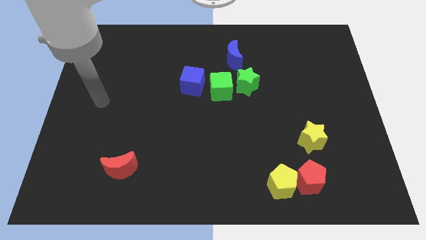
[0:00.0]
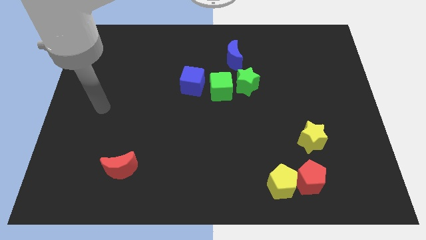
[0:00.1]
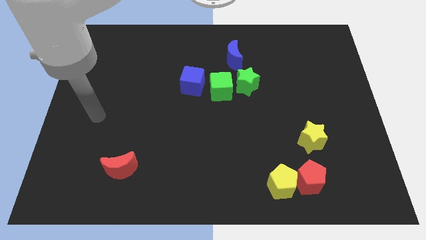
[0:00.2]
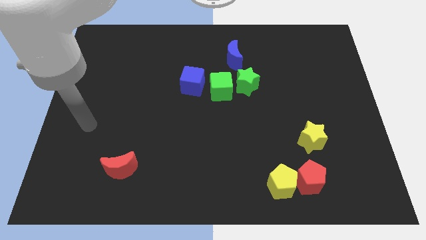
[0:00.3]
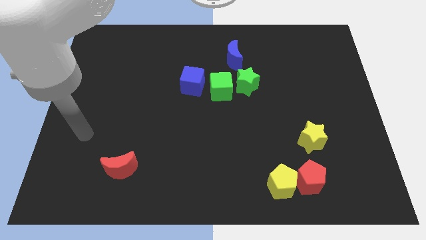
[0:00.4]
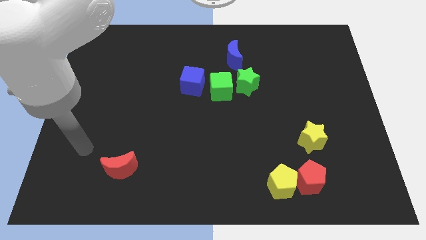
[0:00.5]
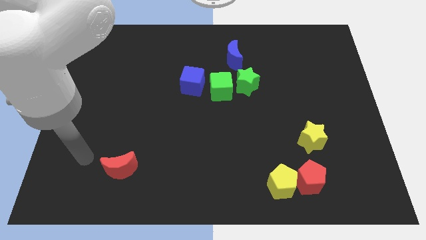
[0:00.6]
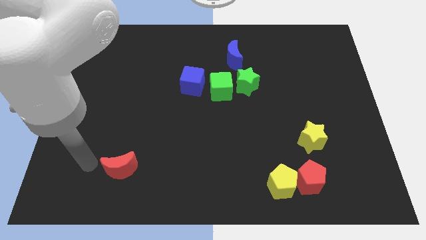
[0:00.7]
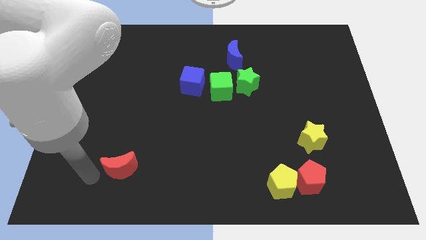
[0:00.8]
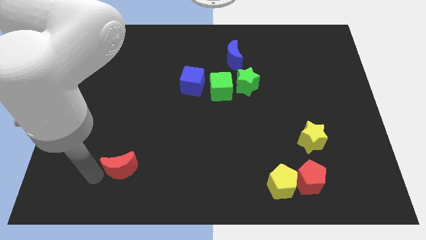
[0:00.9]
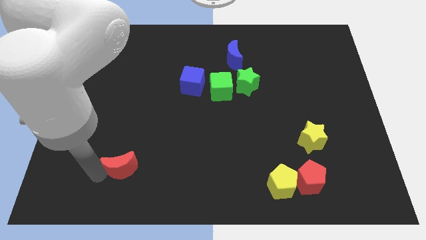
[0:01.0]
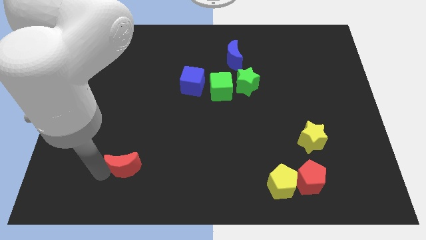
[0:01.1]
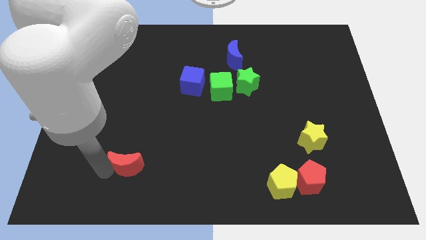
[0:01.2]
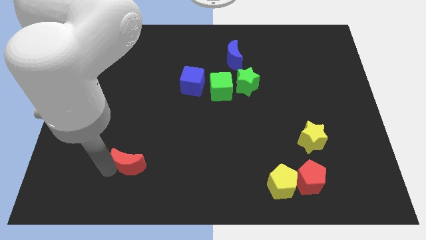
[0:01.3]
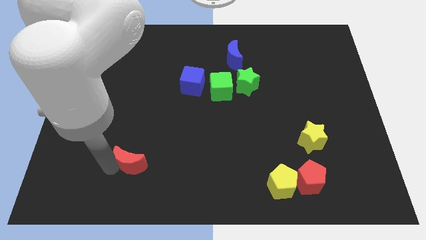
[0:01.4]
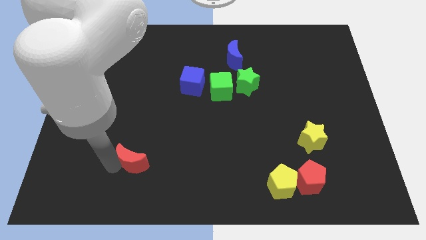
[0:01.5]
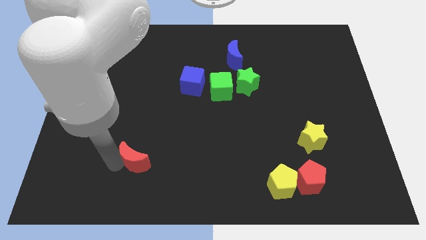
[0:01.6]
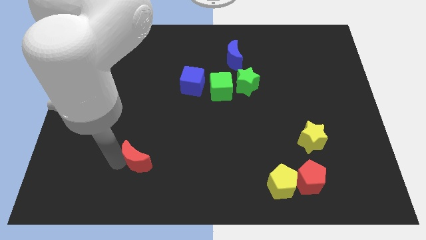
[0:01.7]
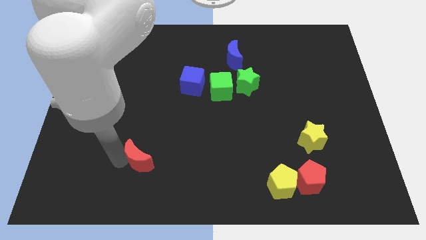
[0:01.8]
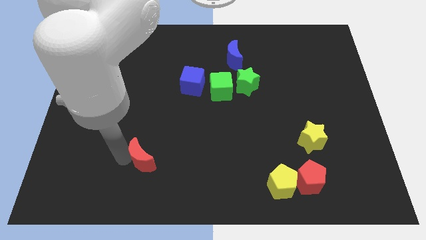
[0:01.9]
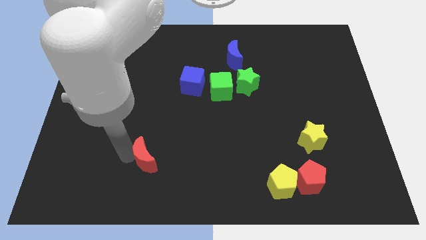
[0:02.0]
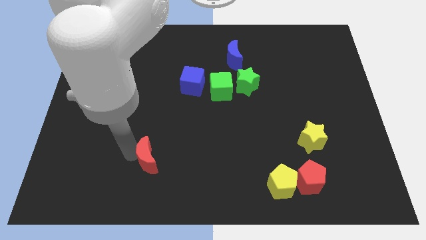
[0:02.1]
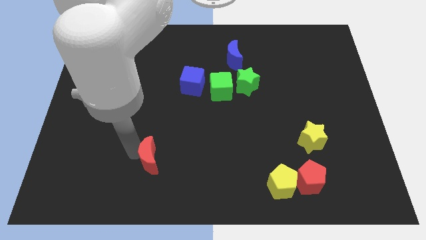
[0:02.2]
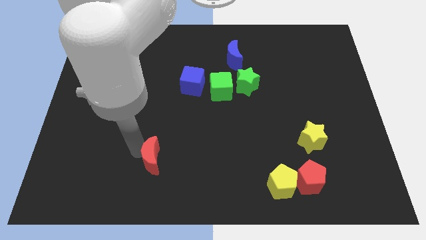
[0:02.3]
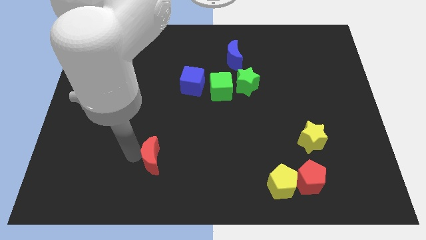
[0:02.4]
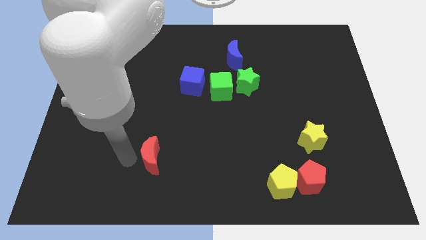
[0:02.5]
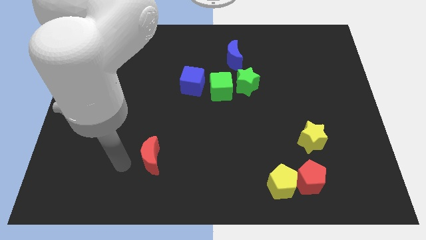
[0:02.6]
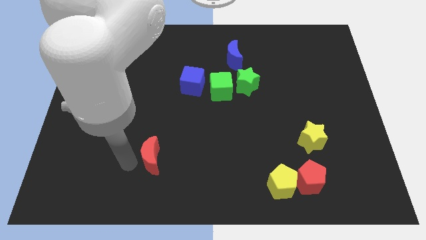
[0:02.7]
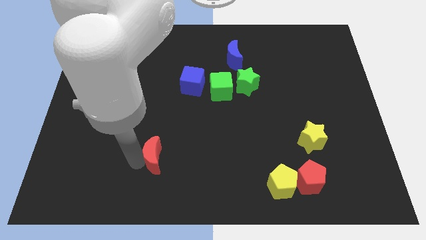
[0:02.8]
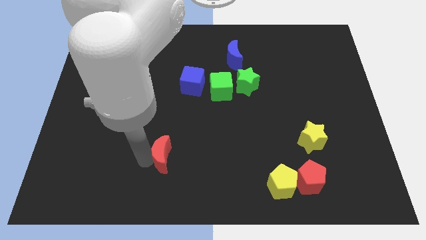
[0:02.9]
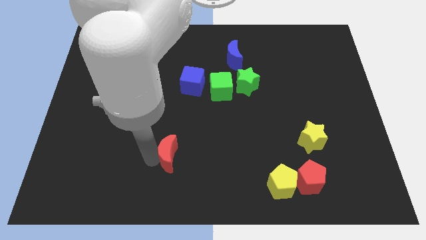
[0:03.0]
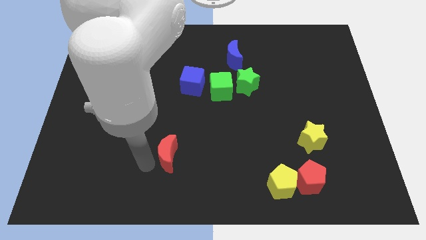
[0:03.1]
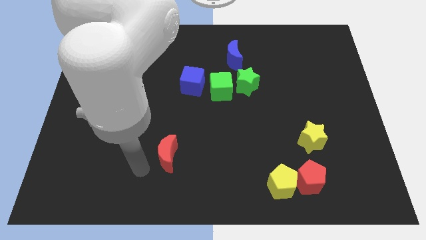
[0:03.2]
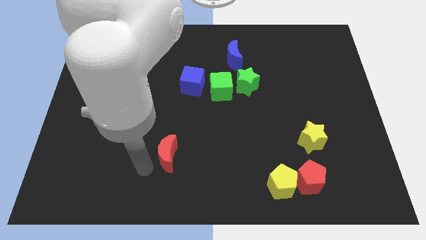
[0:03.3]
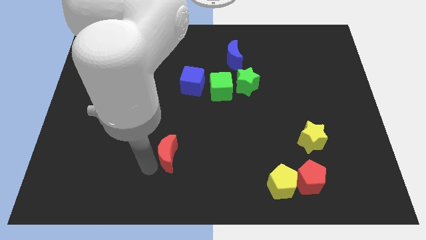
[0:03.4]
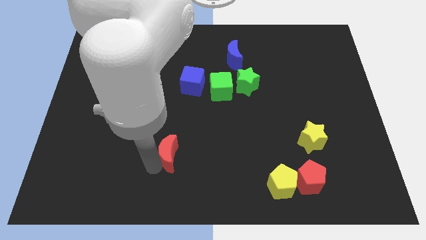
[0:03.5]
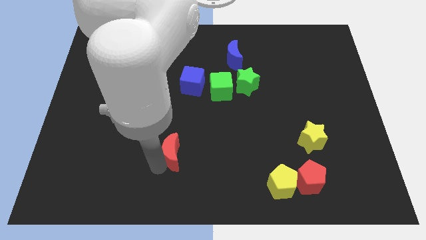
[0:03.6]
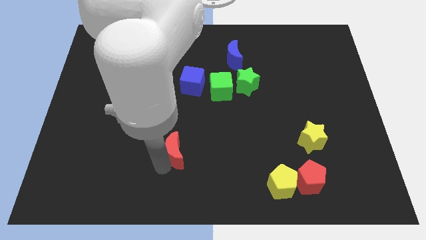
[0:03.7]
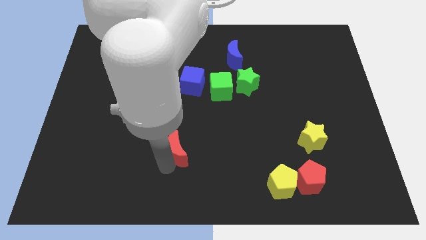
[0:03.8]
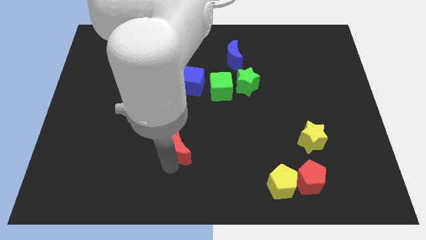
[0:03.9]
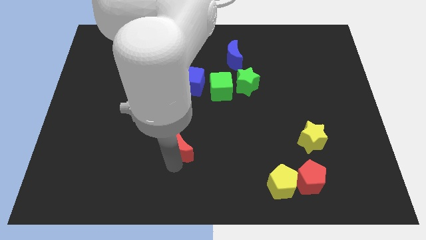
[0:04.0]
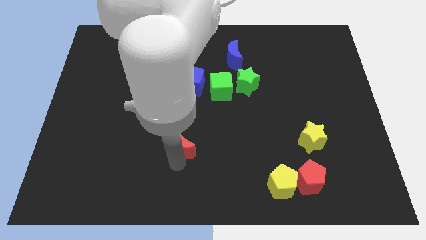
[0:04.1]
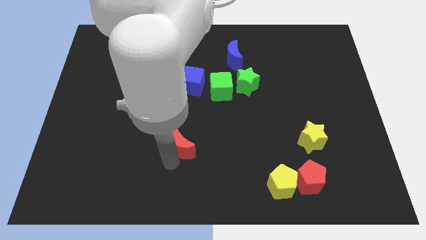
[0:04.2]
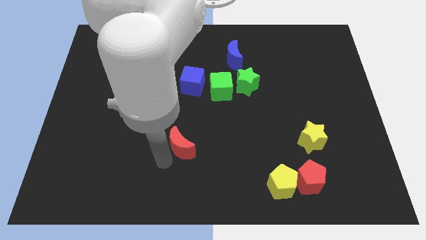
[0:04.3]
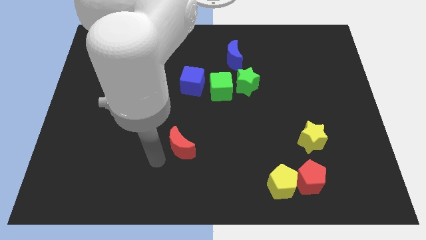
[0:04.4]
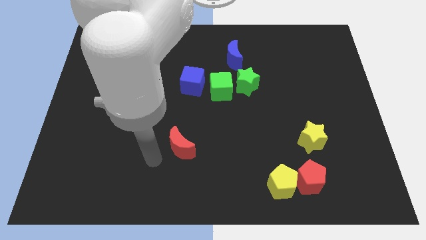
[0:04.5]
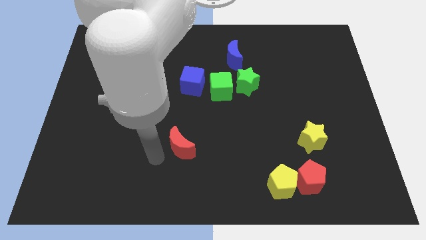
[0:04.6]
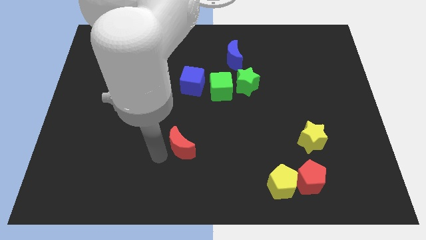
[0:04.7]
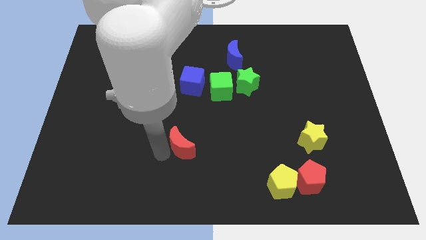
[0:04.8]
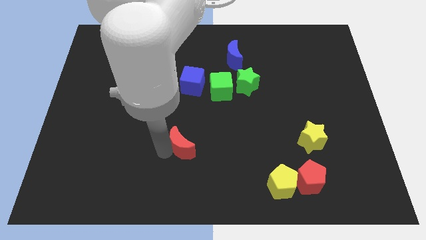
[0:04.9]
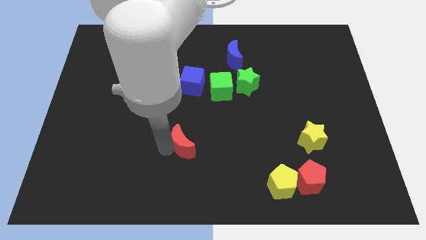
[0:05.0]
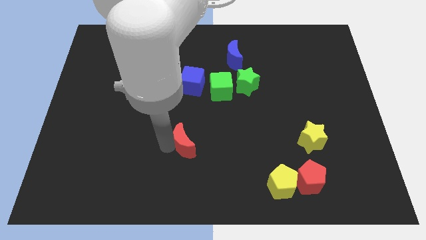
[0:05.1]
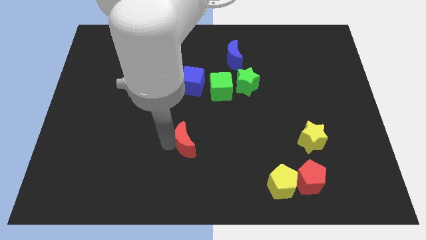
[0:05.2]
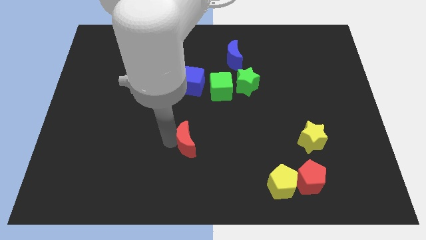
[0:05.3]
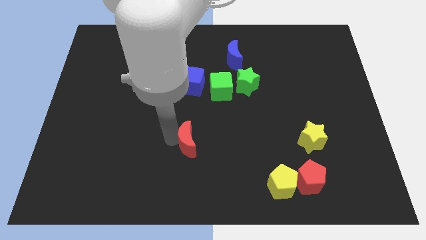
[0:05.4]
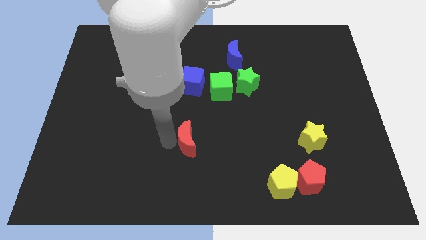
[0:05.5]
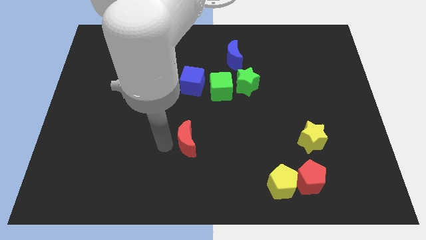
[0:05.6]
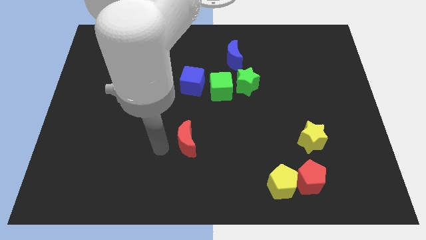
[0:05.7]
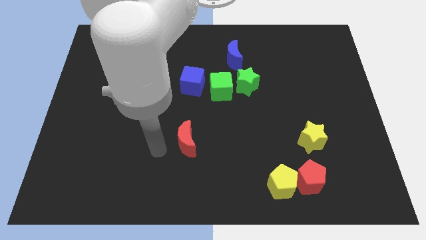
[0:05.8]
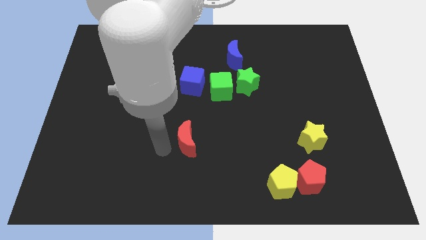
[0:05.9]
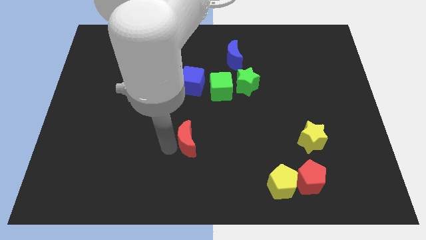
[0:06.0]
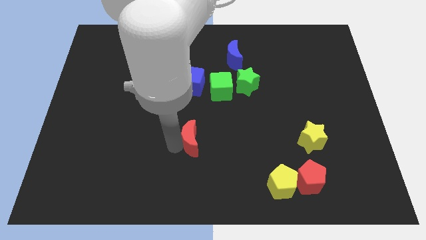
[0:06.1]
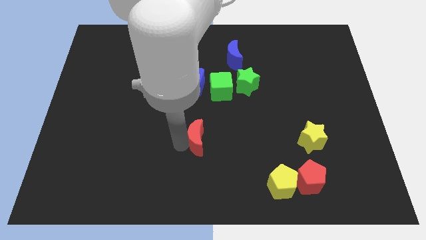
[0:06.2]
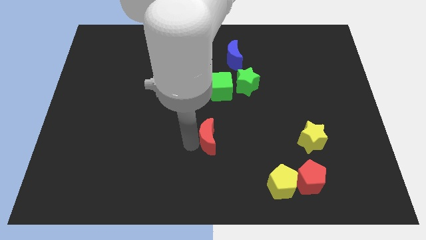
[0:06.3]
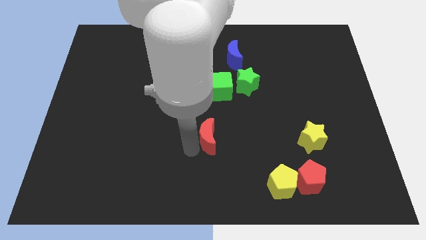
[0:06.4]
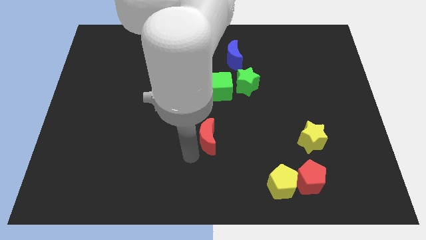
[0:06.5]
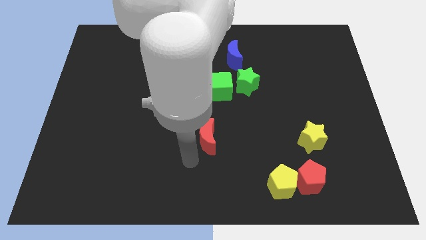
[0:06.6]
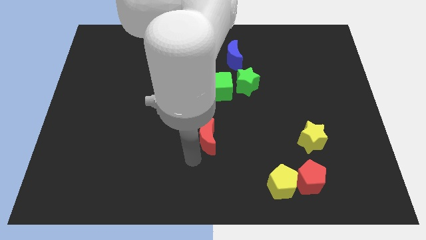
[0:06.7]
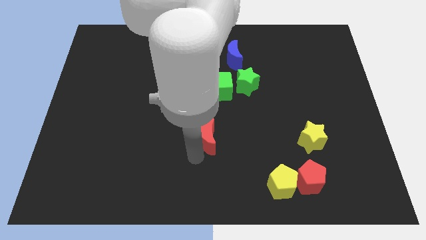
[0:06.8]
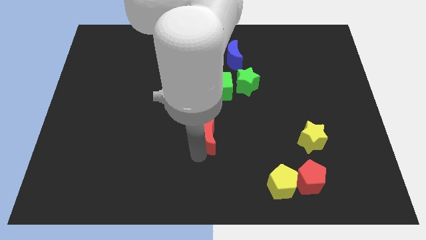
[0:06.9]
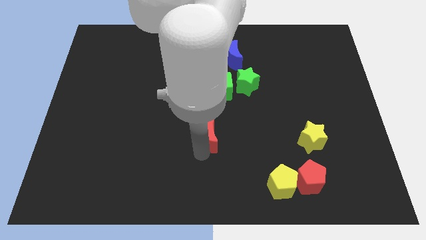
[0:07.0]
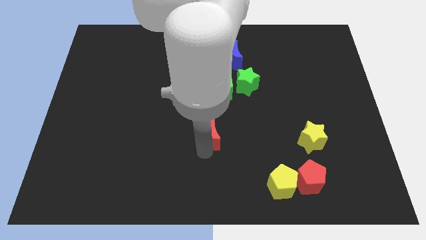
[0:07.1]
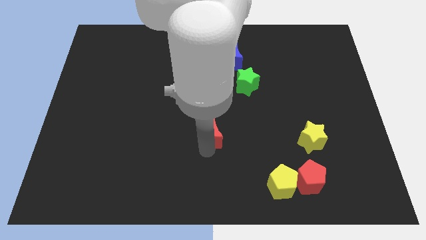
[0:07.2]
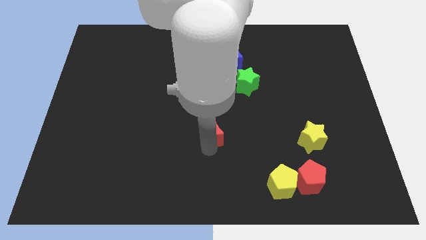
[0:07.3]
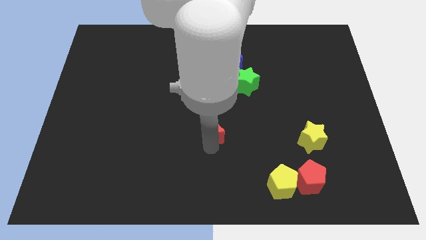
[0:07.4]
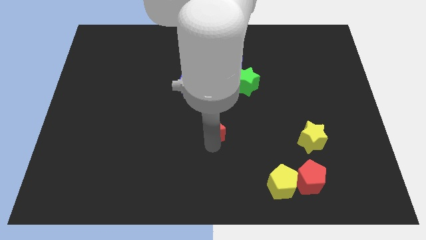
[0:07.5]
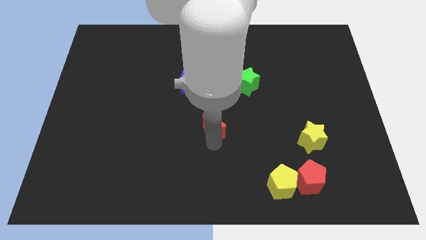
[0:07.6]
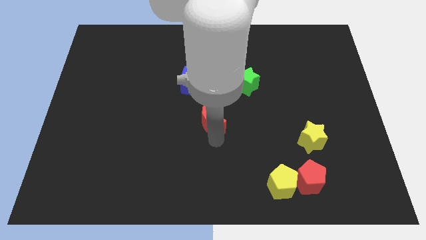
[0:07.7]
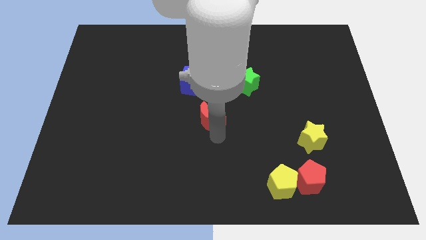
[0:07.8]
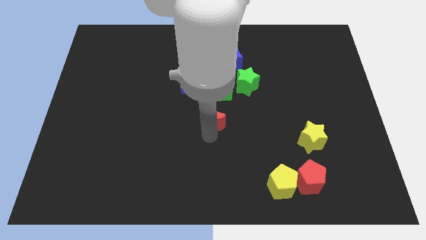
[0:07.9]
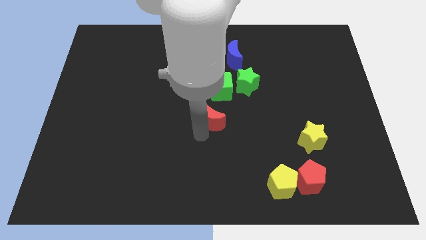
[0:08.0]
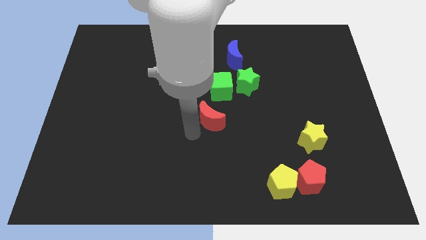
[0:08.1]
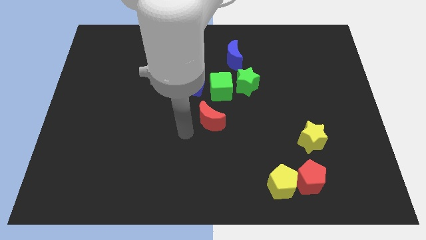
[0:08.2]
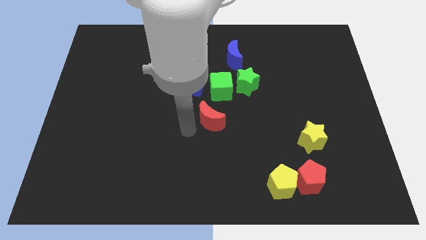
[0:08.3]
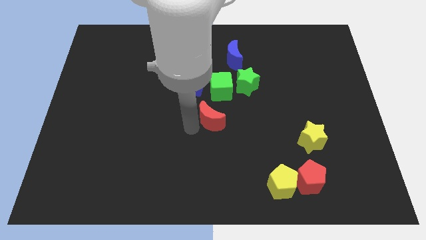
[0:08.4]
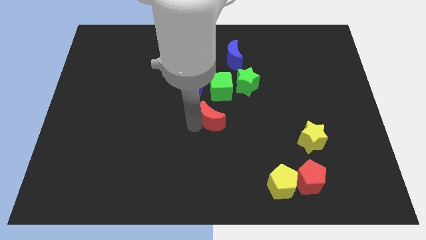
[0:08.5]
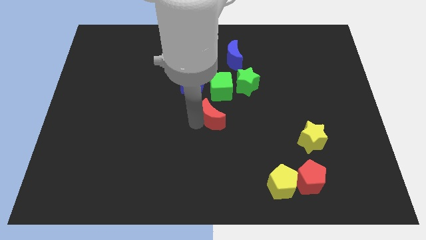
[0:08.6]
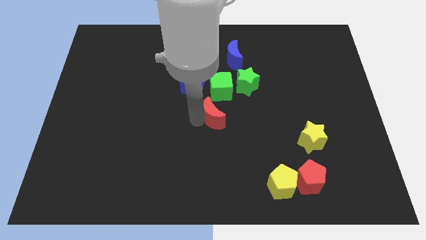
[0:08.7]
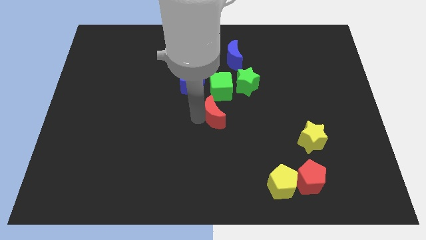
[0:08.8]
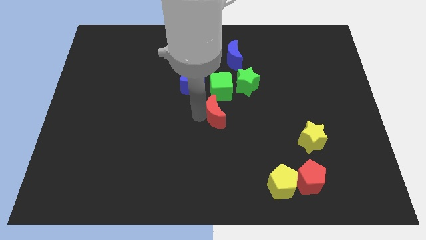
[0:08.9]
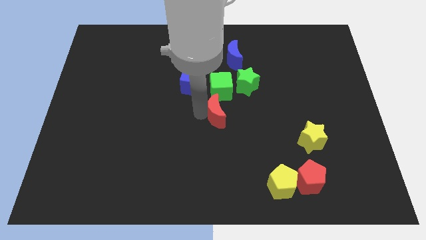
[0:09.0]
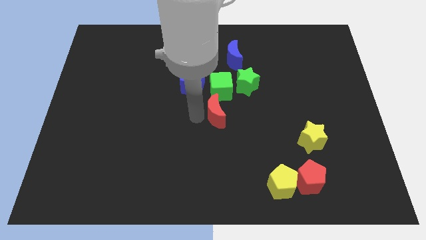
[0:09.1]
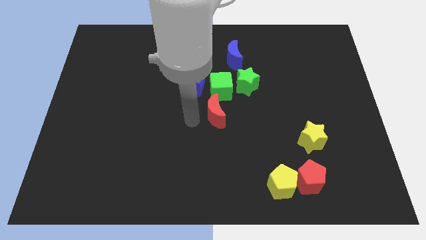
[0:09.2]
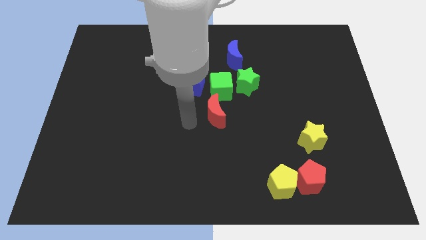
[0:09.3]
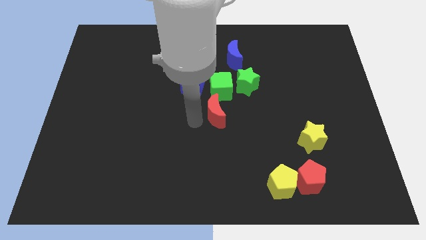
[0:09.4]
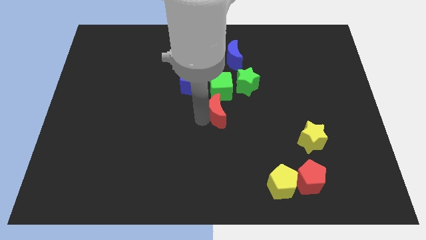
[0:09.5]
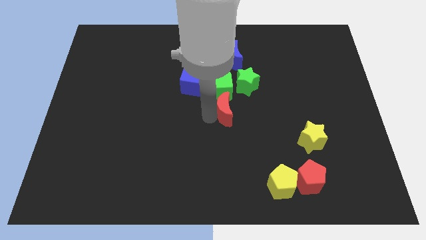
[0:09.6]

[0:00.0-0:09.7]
move the red moon to the bottom right side of the green cube
